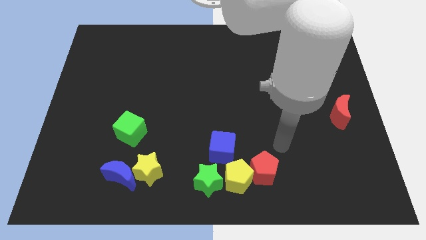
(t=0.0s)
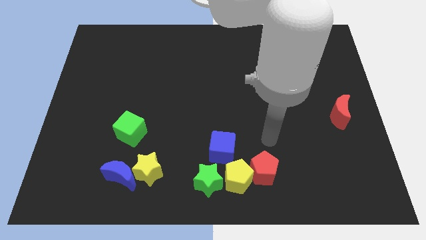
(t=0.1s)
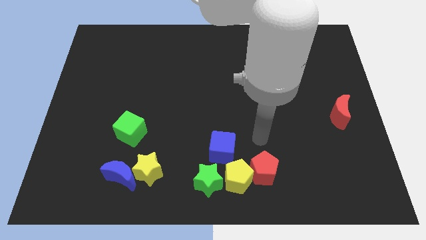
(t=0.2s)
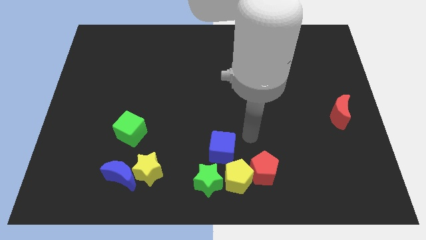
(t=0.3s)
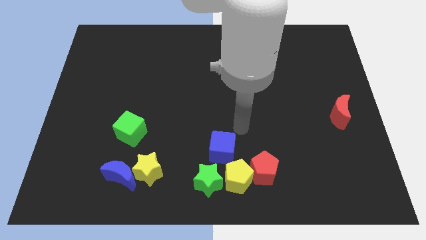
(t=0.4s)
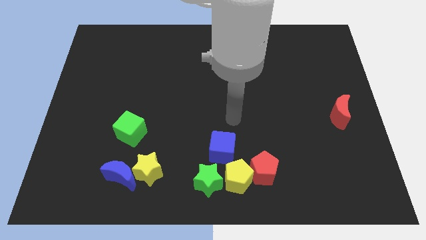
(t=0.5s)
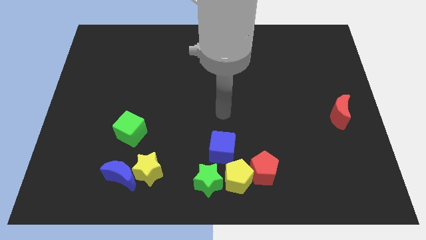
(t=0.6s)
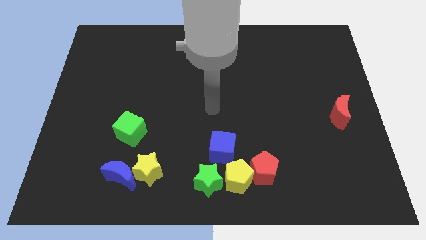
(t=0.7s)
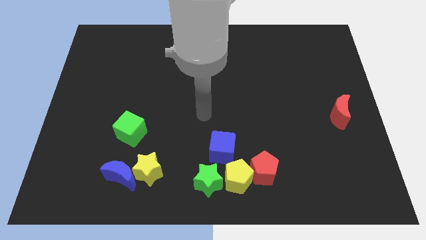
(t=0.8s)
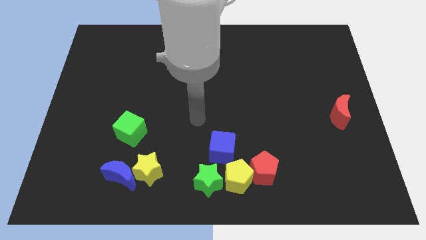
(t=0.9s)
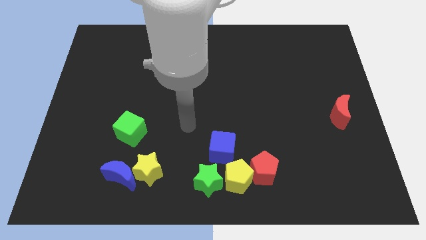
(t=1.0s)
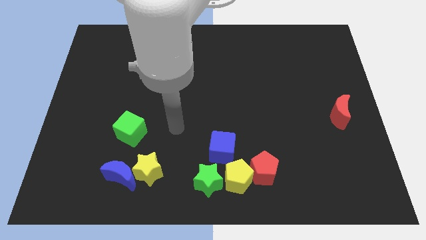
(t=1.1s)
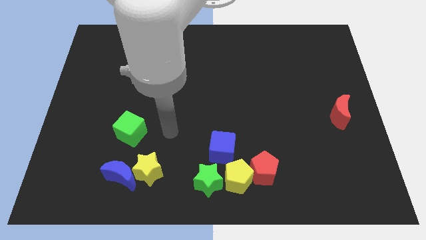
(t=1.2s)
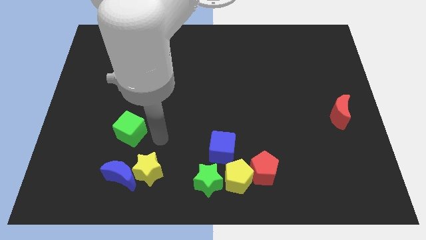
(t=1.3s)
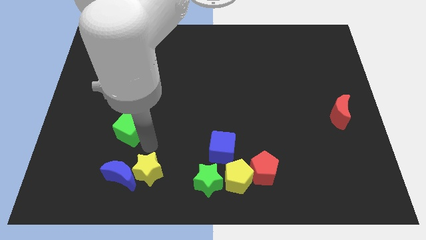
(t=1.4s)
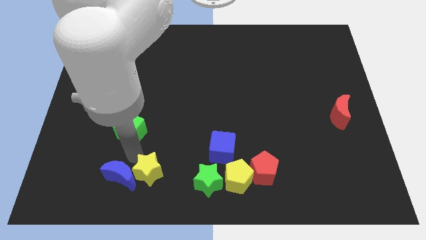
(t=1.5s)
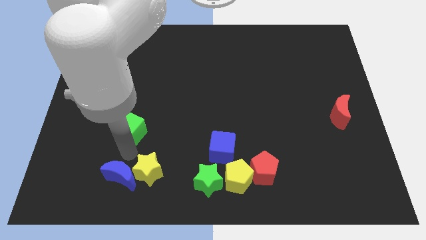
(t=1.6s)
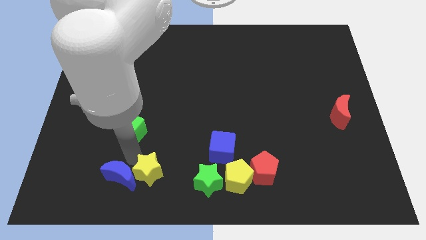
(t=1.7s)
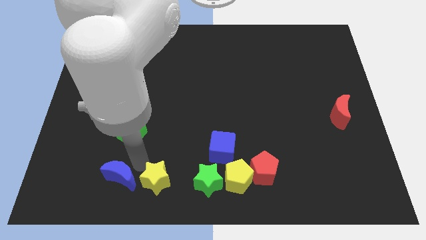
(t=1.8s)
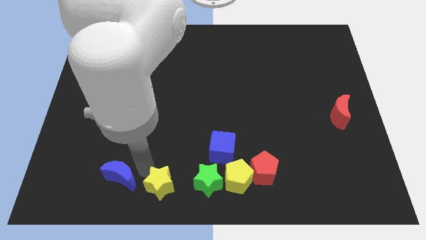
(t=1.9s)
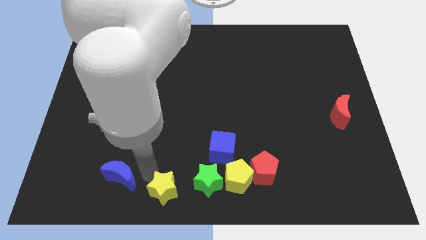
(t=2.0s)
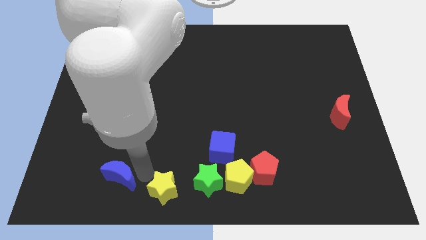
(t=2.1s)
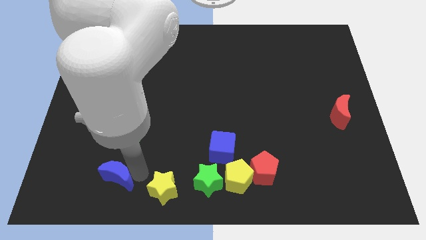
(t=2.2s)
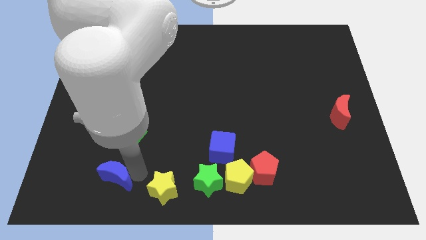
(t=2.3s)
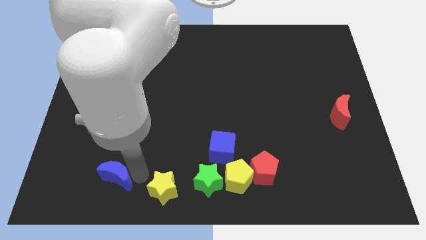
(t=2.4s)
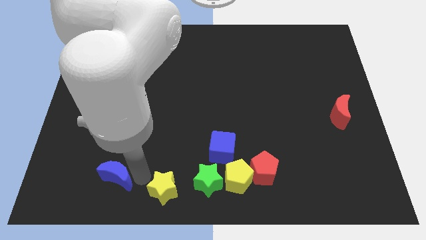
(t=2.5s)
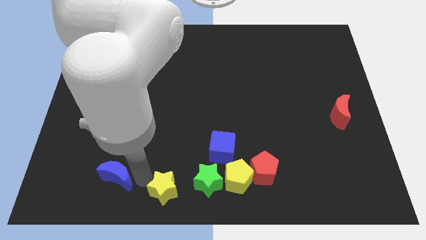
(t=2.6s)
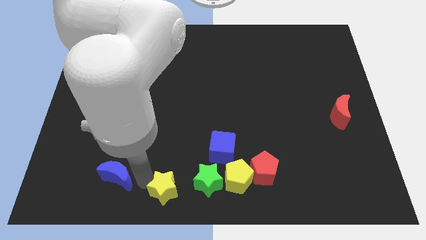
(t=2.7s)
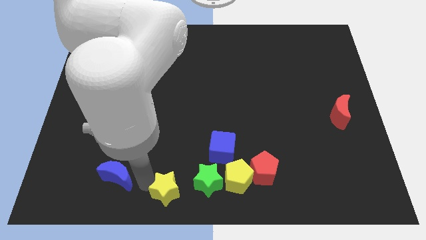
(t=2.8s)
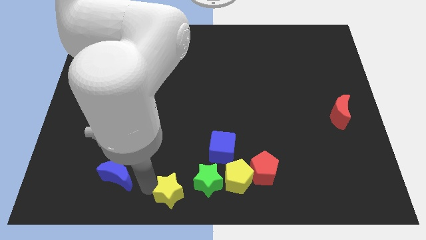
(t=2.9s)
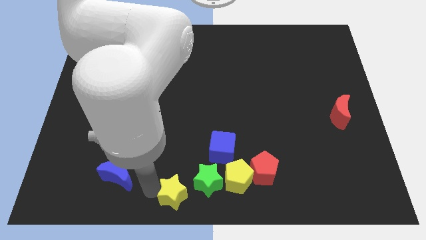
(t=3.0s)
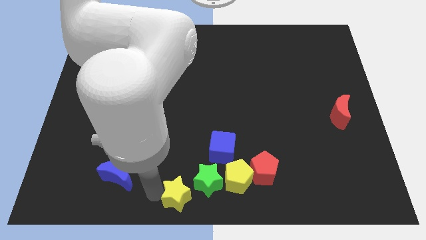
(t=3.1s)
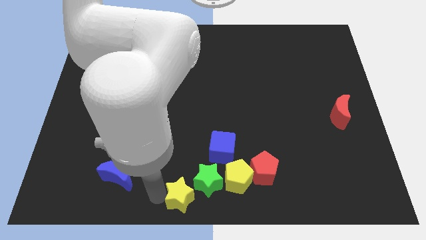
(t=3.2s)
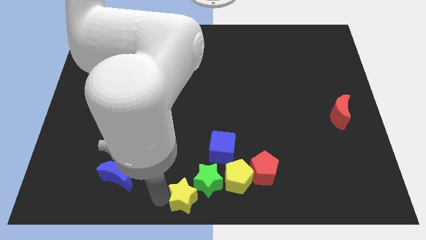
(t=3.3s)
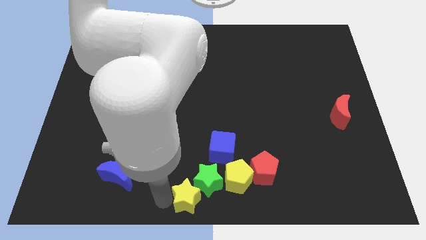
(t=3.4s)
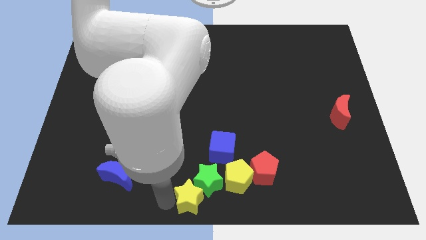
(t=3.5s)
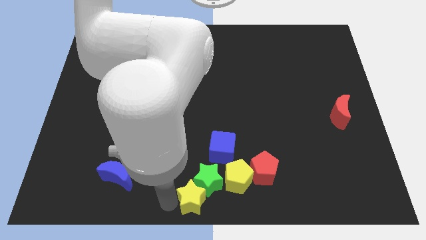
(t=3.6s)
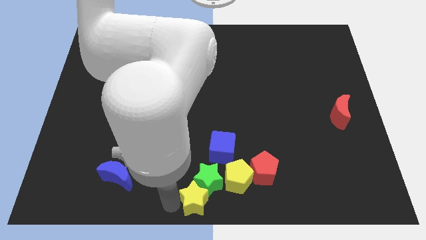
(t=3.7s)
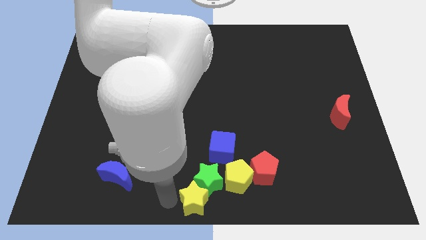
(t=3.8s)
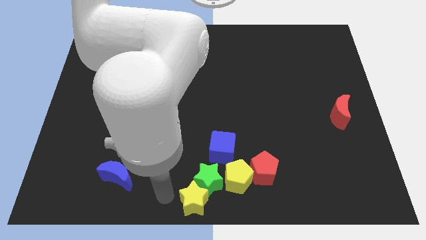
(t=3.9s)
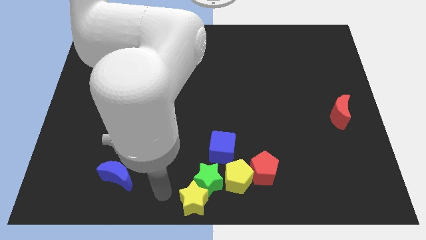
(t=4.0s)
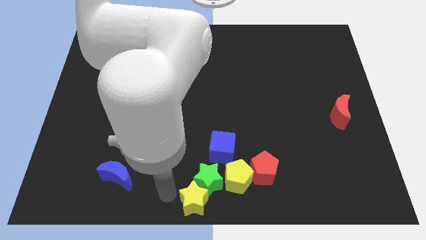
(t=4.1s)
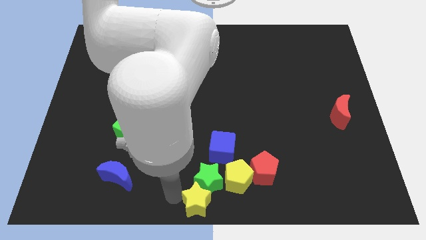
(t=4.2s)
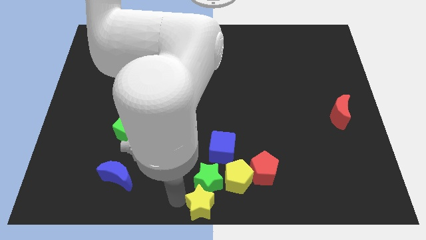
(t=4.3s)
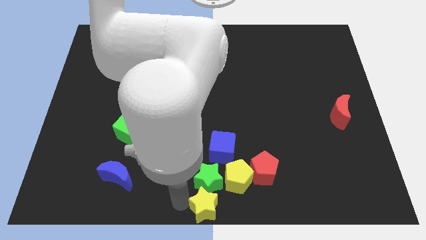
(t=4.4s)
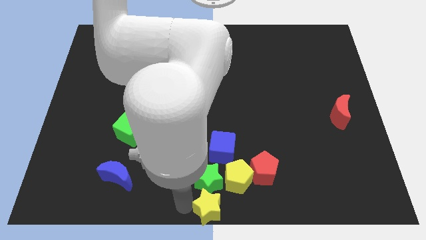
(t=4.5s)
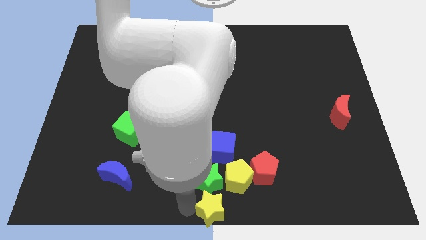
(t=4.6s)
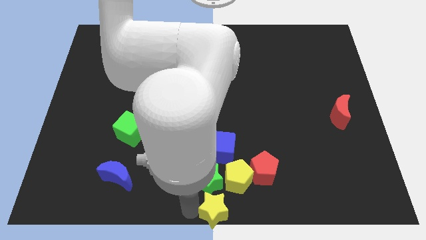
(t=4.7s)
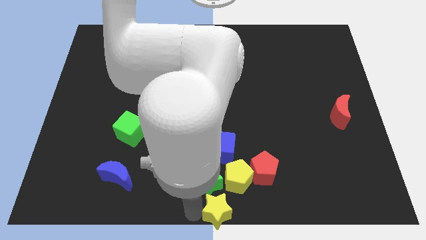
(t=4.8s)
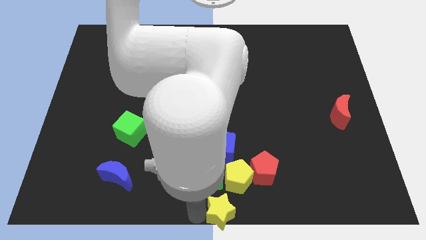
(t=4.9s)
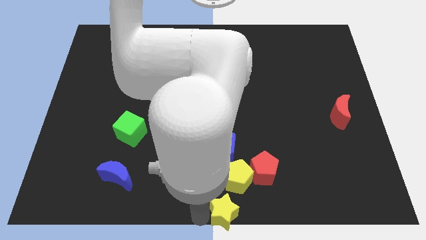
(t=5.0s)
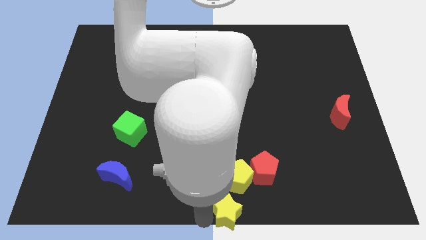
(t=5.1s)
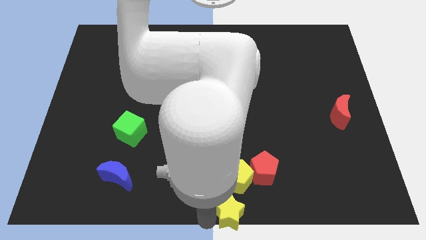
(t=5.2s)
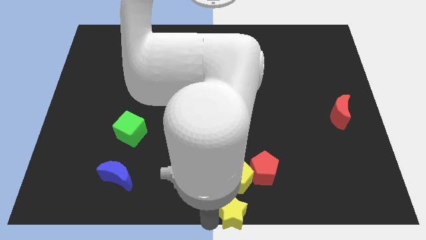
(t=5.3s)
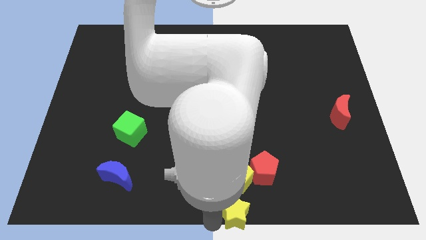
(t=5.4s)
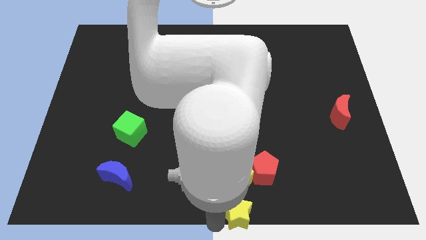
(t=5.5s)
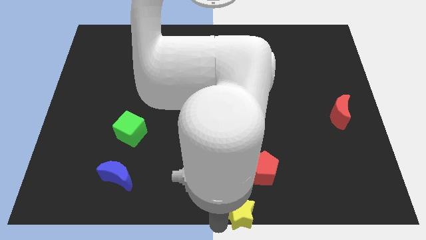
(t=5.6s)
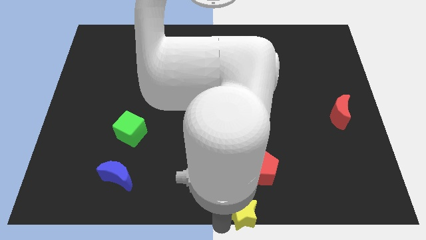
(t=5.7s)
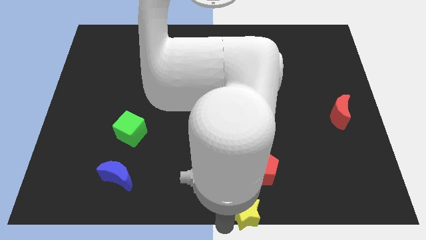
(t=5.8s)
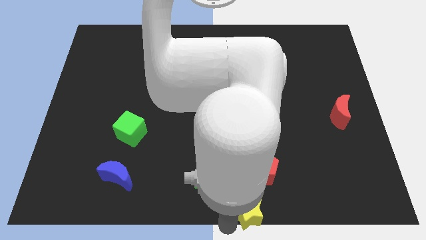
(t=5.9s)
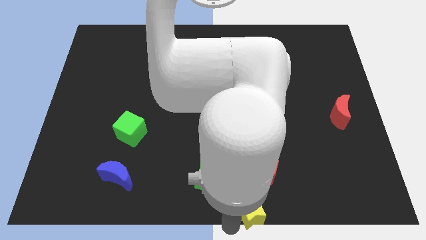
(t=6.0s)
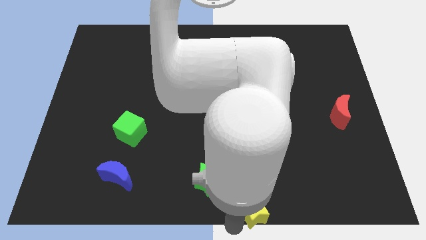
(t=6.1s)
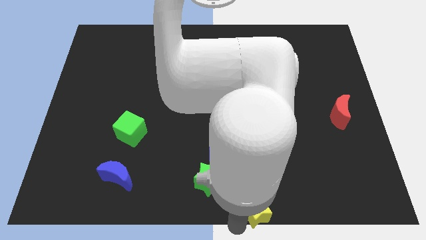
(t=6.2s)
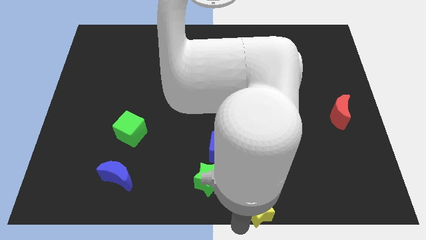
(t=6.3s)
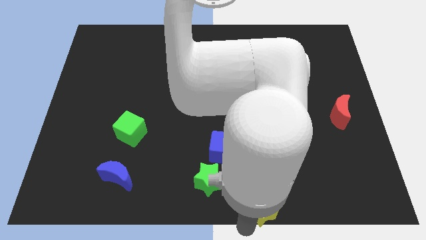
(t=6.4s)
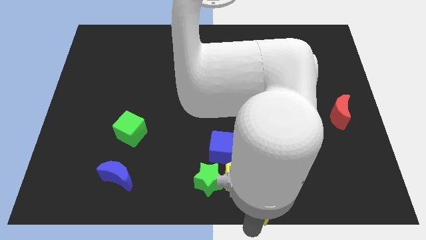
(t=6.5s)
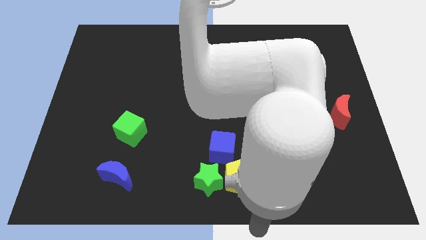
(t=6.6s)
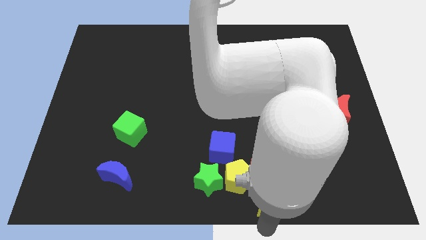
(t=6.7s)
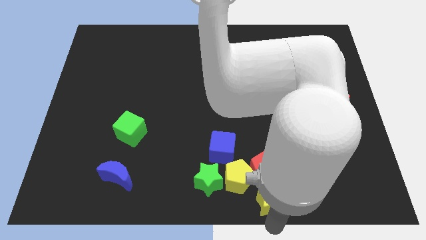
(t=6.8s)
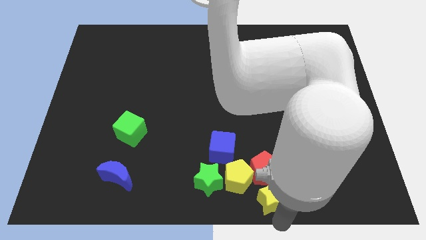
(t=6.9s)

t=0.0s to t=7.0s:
push the yellow star just right of the yellow pentagon
